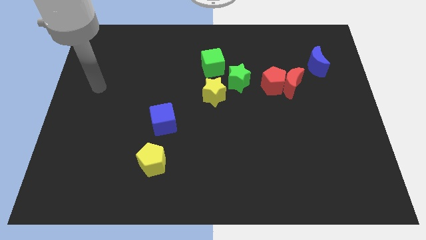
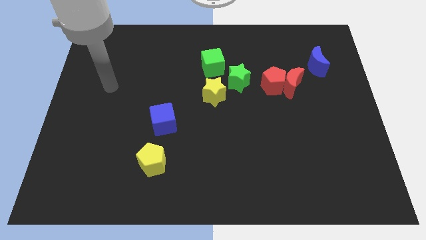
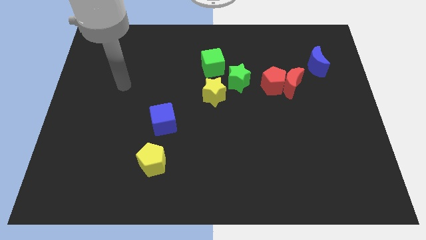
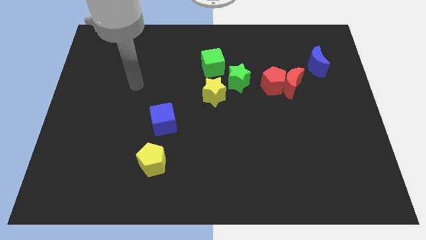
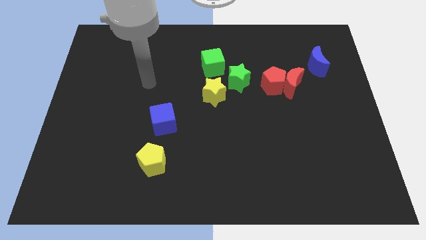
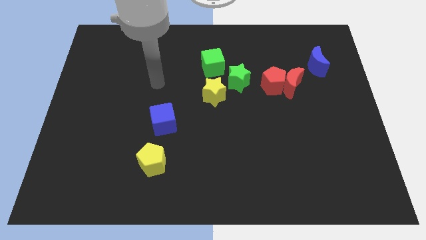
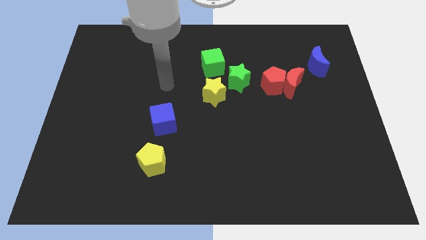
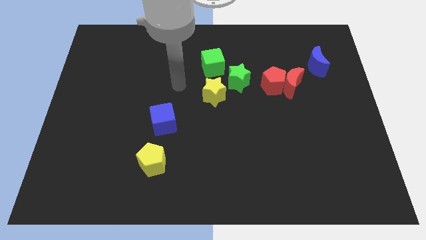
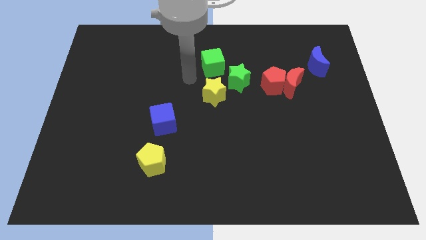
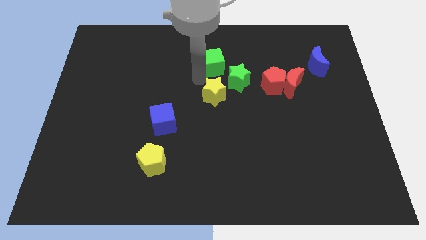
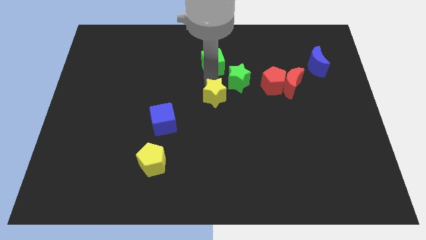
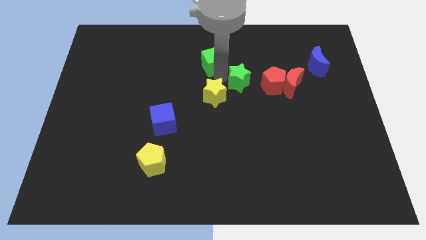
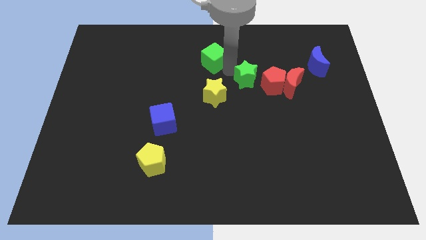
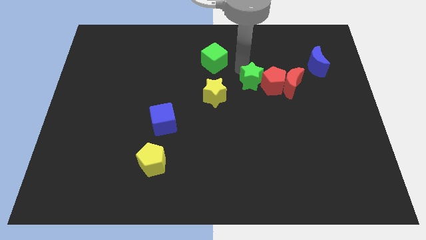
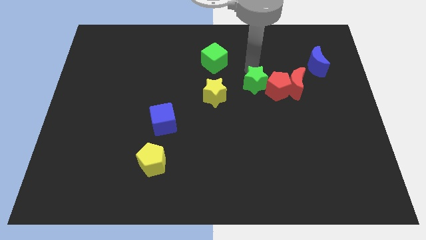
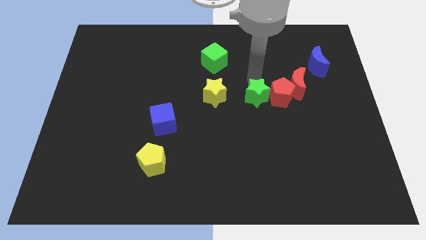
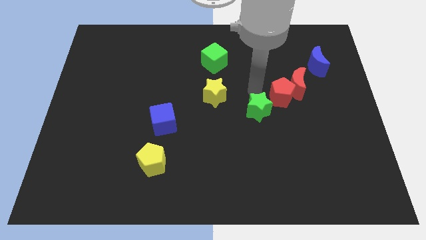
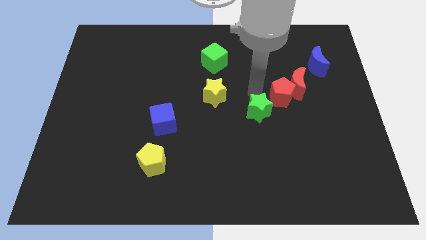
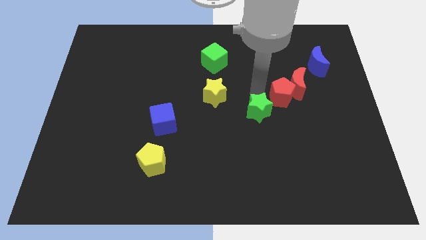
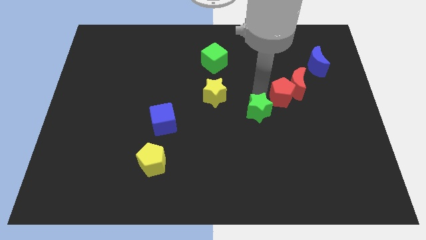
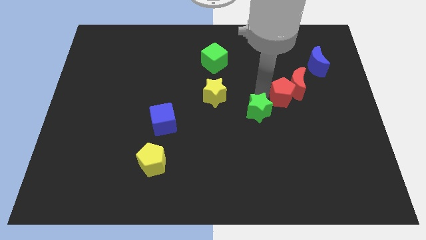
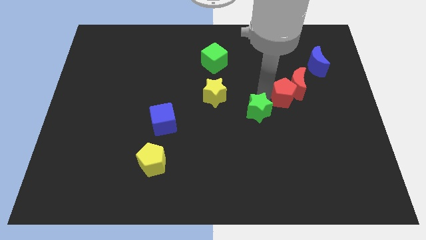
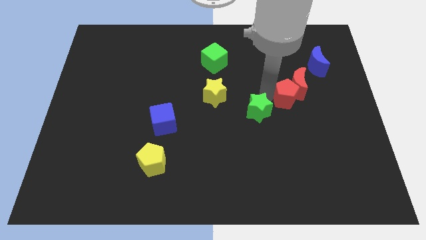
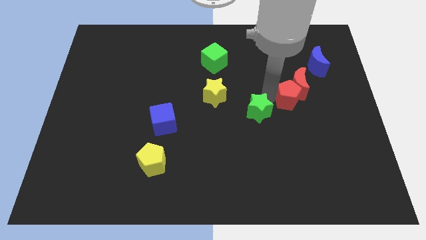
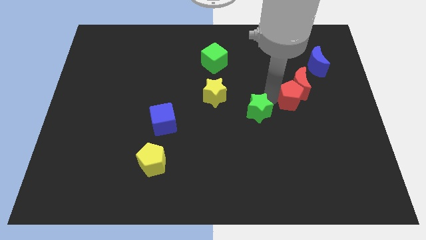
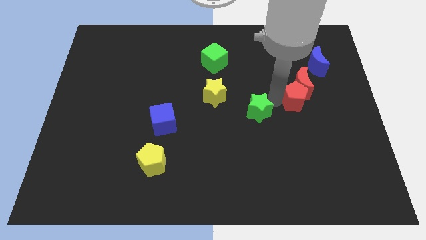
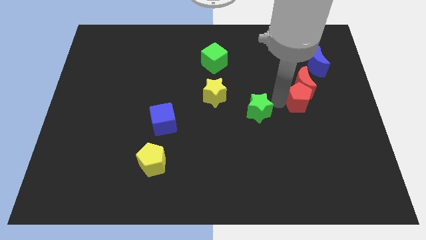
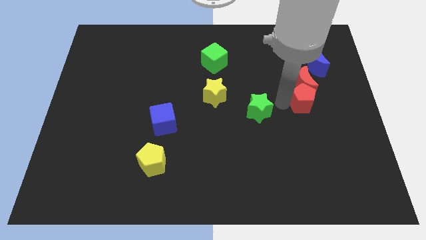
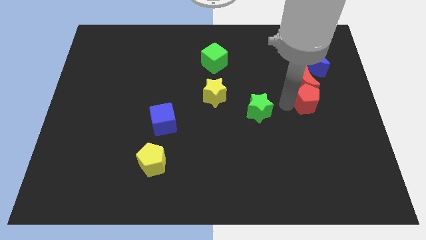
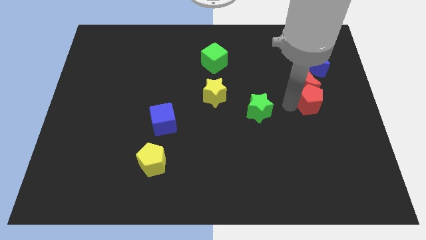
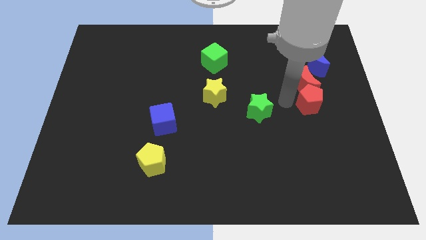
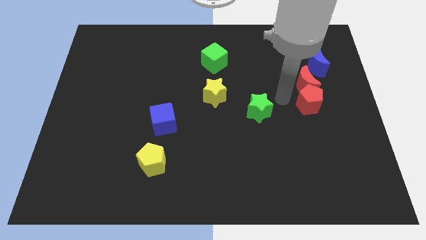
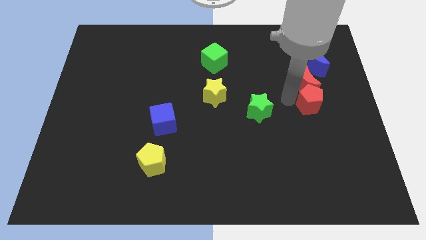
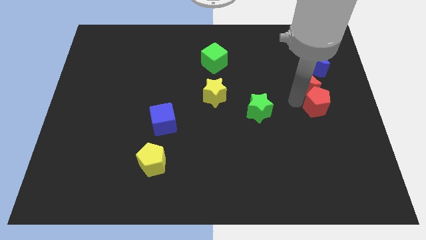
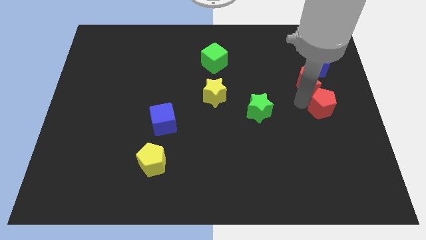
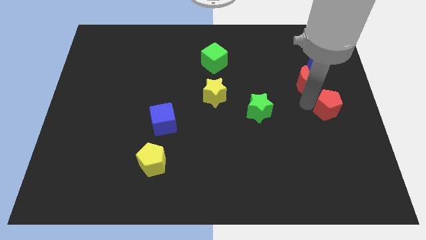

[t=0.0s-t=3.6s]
move the red pentagon away from the red moon and green star

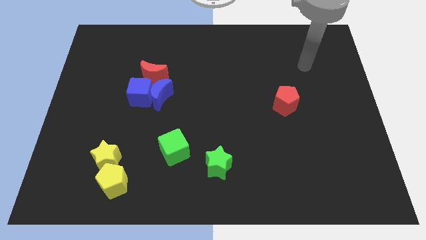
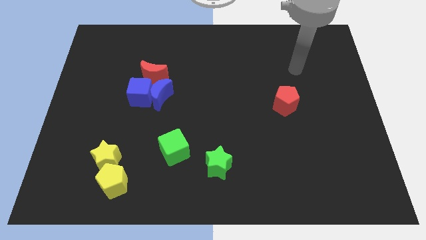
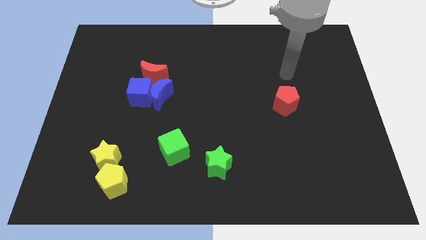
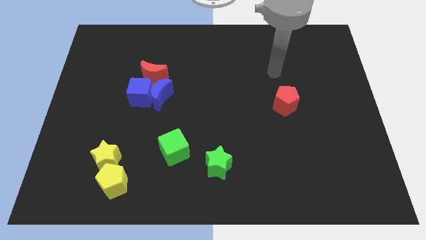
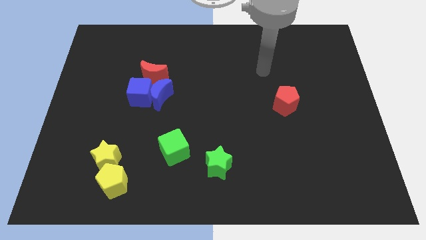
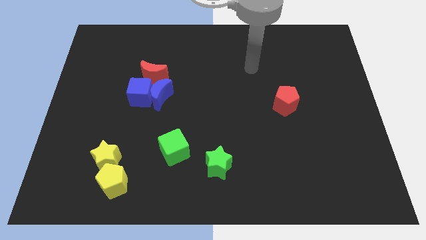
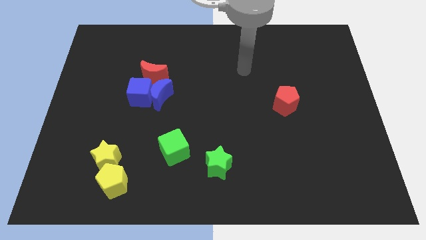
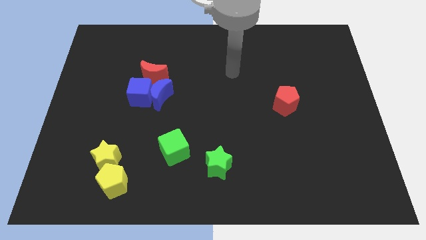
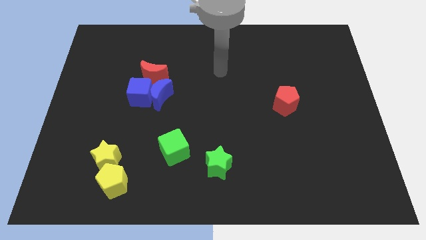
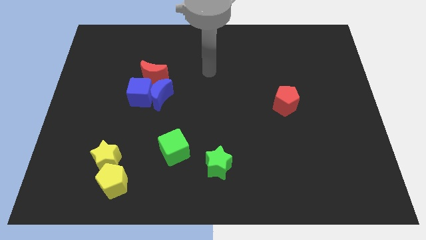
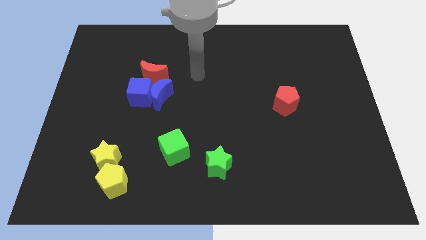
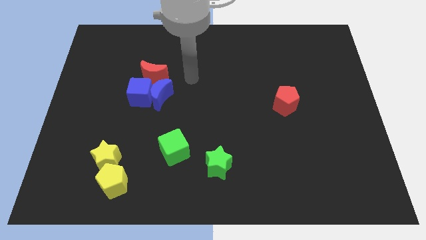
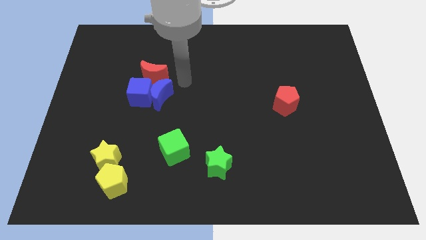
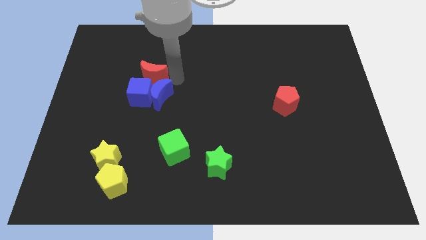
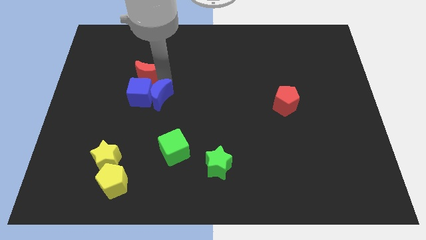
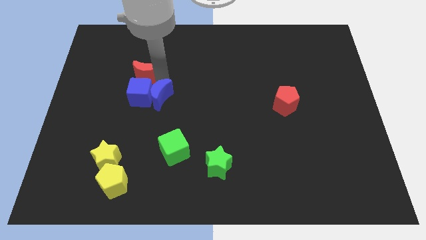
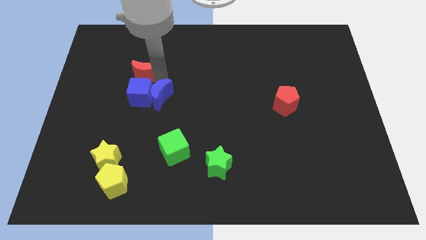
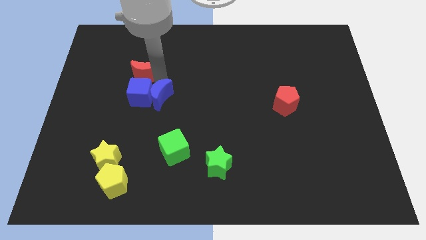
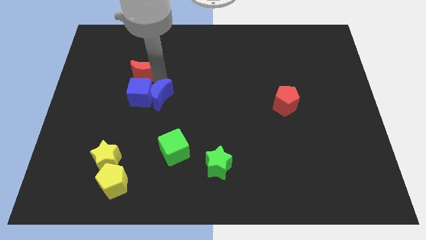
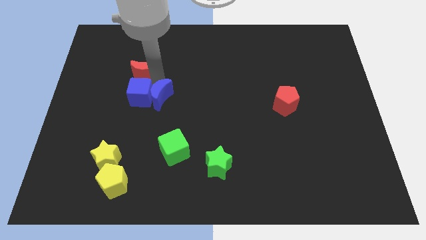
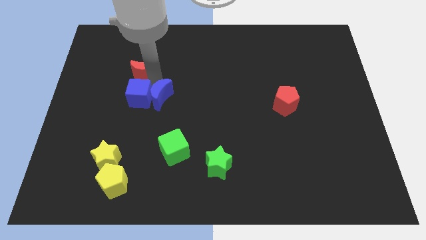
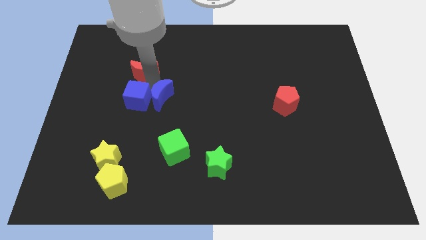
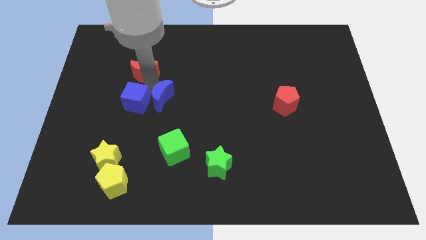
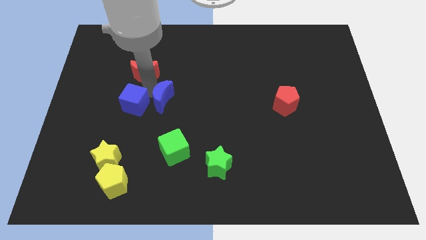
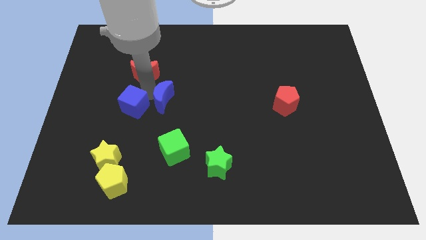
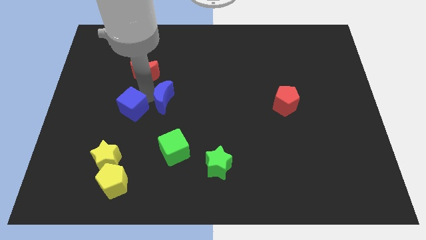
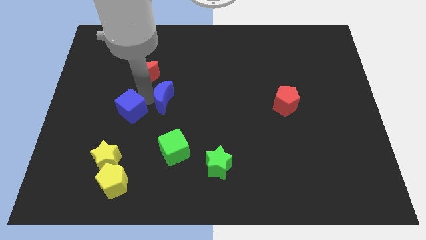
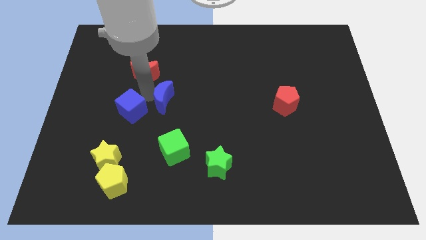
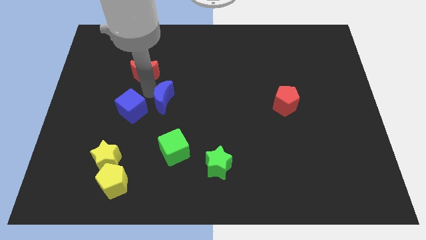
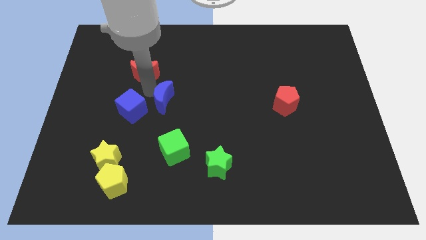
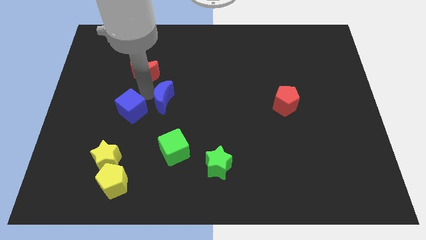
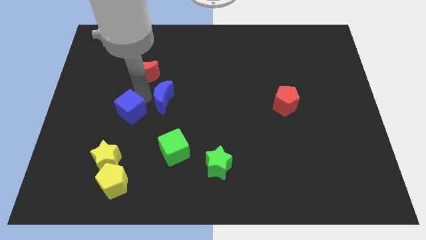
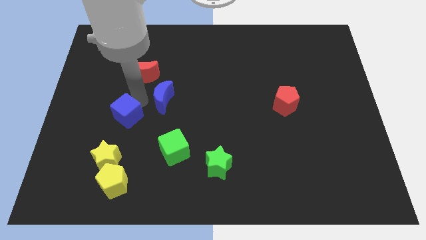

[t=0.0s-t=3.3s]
separate the blue cube from the blue moon and red moon

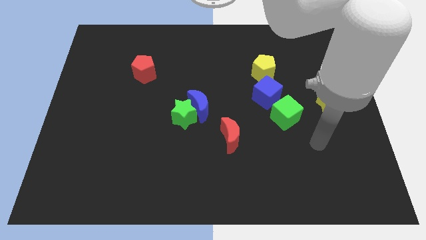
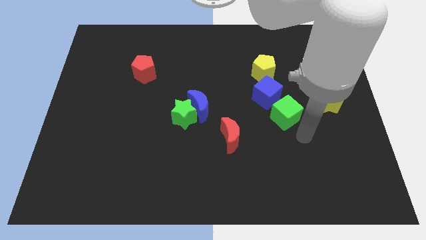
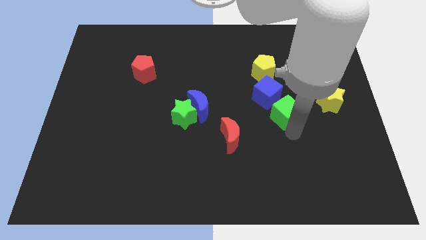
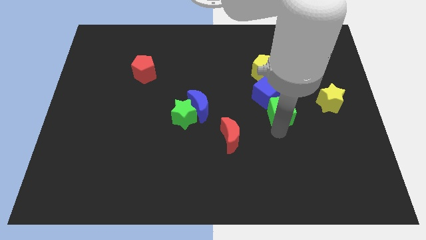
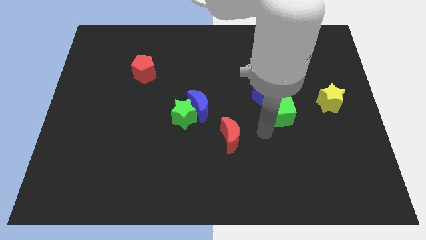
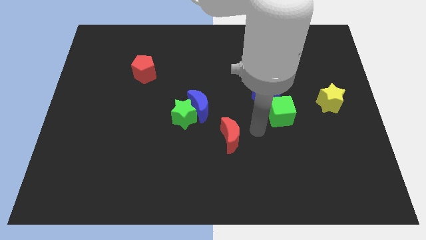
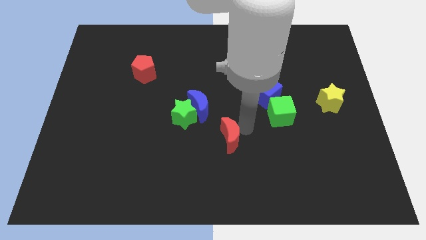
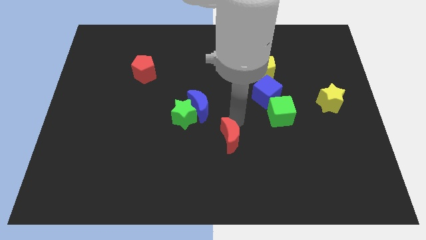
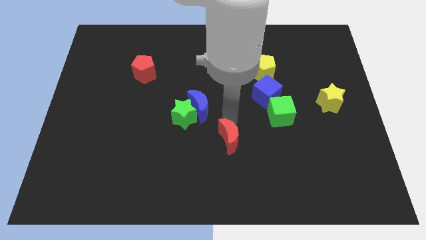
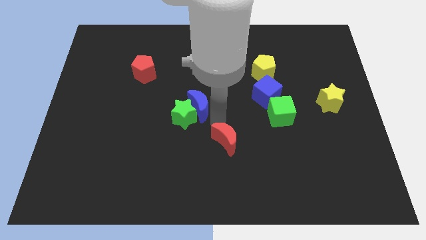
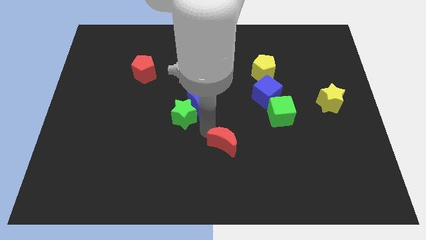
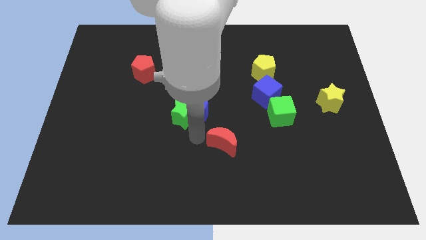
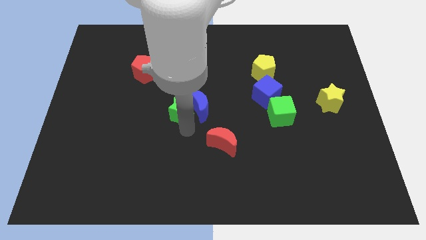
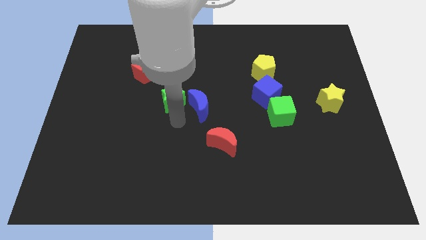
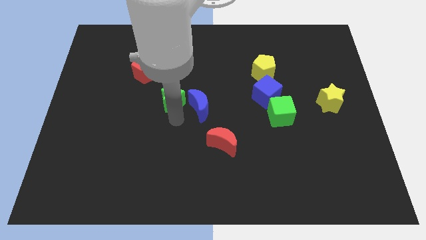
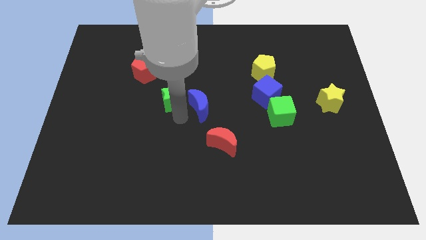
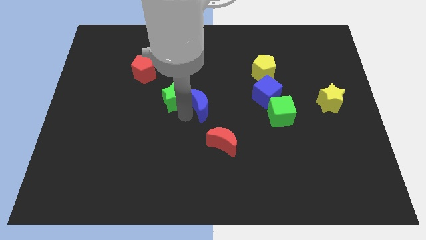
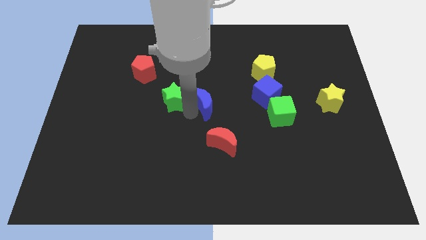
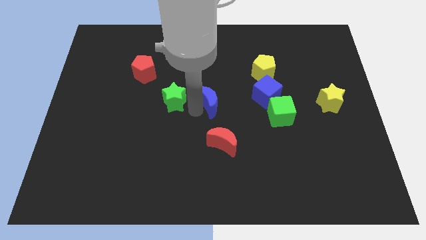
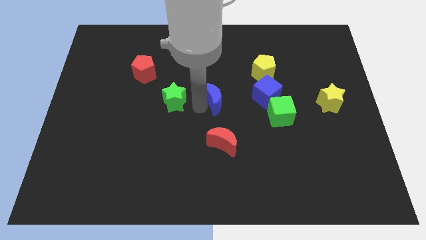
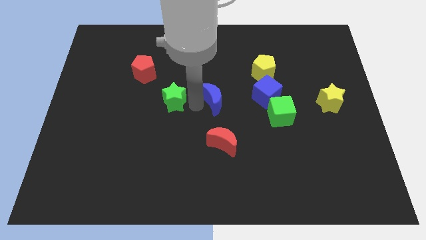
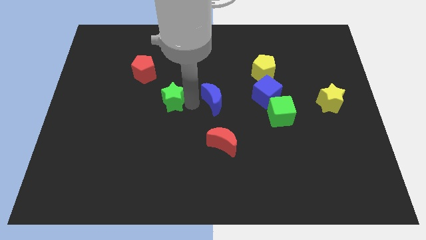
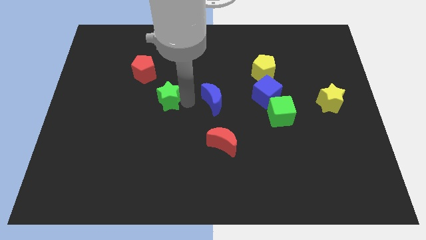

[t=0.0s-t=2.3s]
move the blue moon away from the green star
